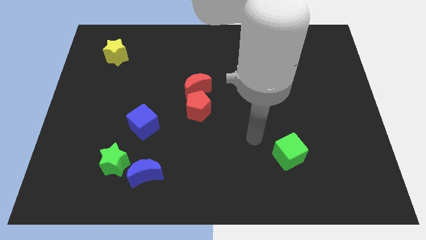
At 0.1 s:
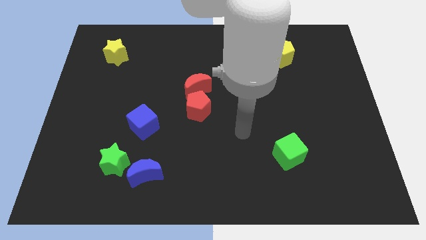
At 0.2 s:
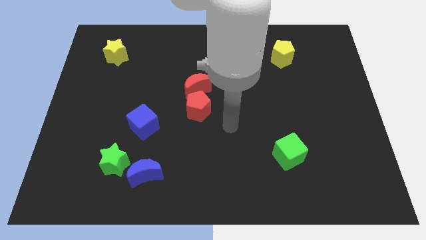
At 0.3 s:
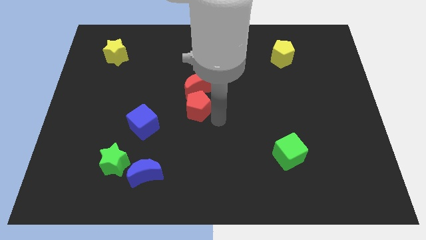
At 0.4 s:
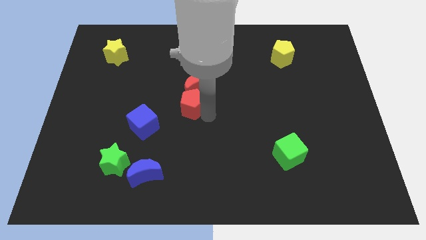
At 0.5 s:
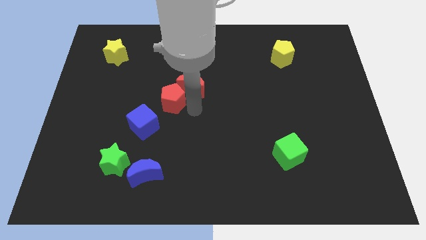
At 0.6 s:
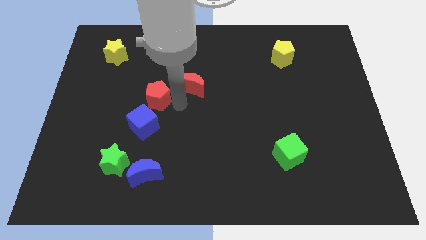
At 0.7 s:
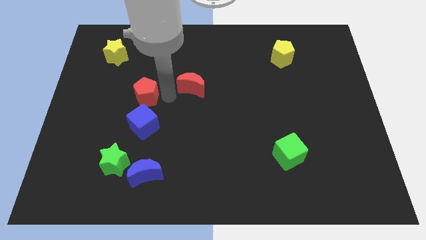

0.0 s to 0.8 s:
move the red moon away from the red pentagon

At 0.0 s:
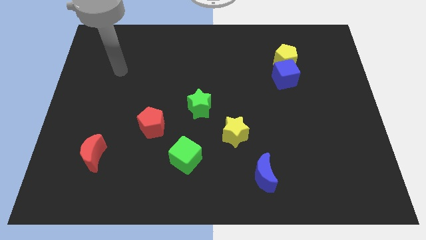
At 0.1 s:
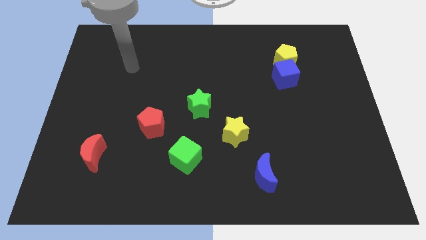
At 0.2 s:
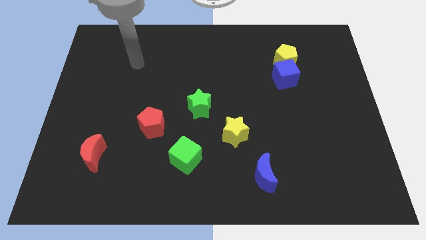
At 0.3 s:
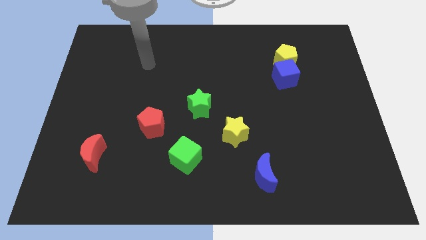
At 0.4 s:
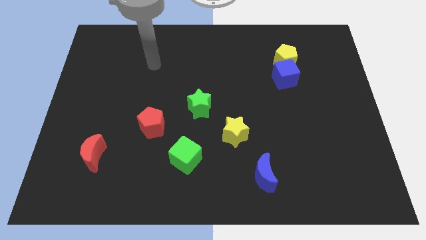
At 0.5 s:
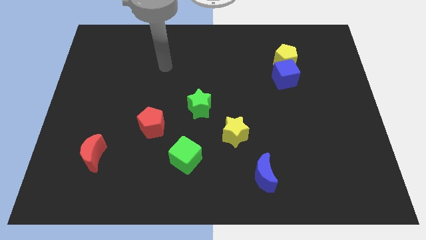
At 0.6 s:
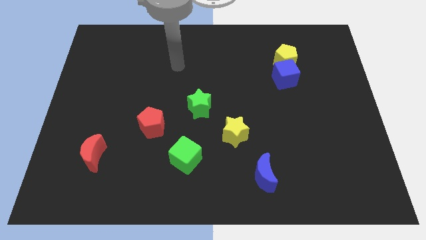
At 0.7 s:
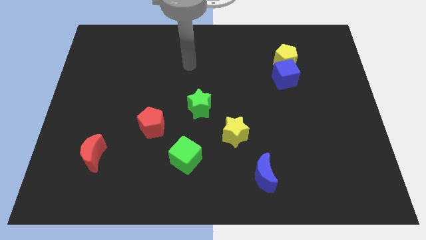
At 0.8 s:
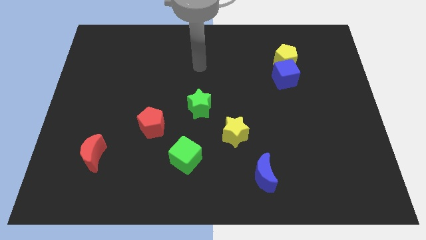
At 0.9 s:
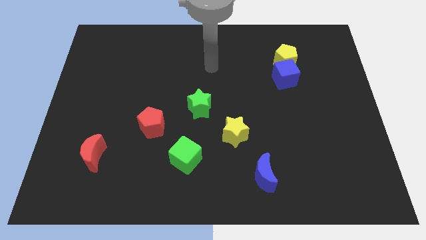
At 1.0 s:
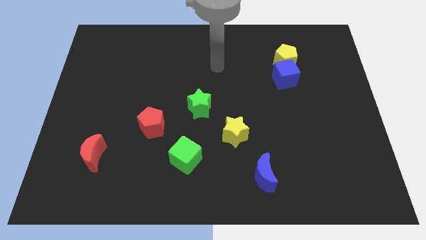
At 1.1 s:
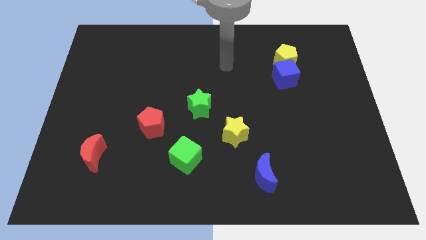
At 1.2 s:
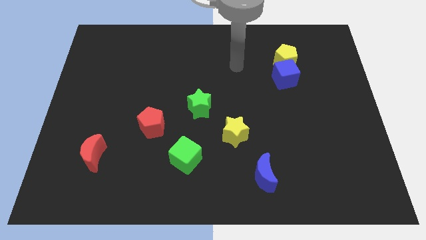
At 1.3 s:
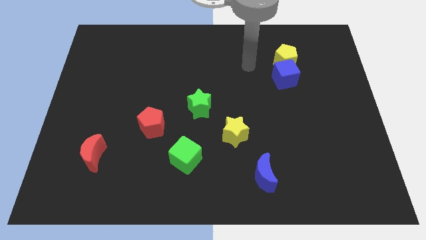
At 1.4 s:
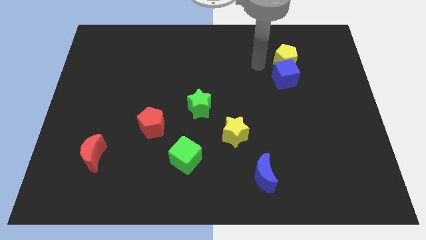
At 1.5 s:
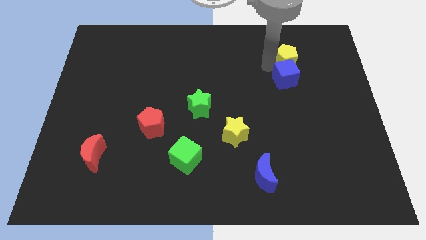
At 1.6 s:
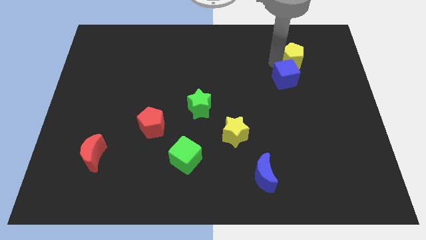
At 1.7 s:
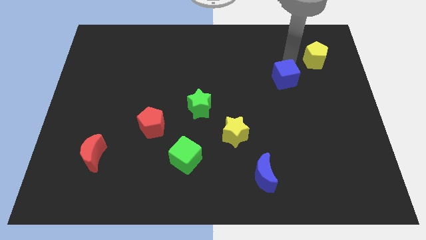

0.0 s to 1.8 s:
move the blue cube away from the yellow pentagon

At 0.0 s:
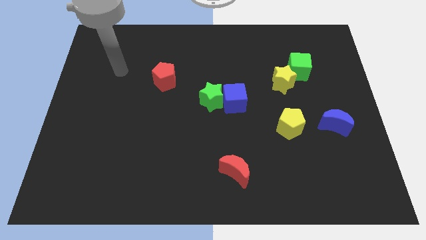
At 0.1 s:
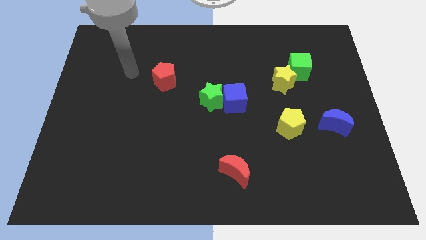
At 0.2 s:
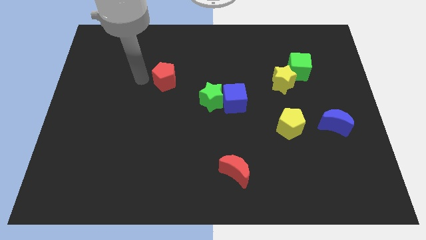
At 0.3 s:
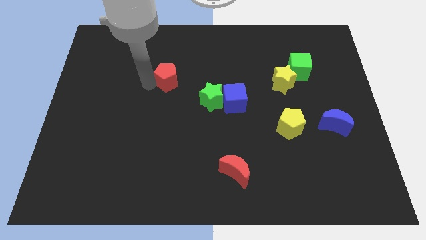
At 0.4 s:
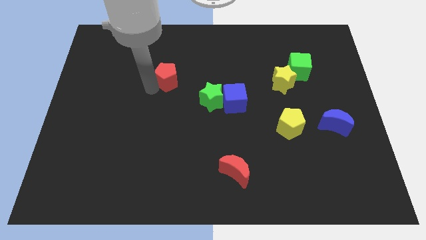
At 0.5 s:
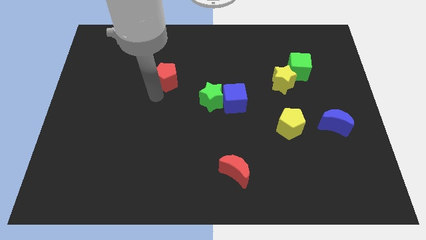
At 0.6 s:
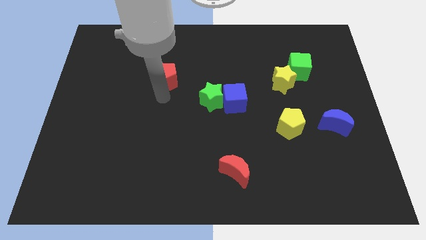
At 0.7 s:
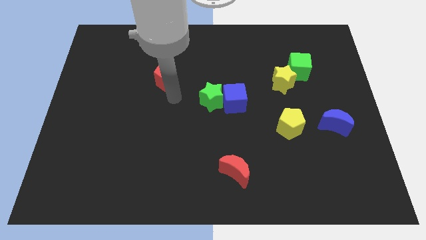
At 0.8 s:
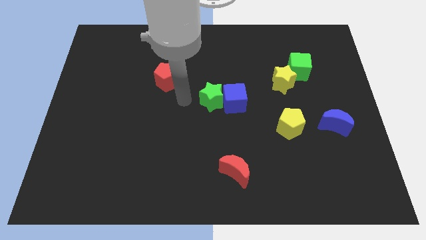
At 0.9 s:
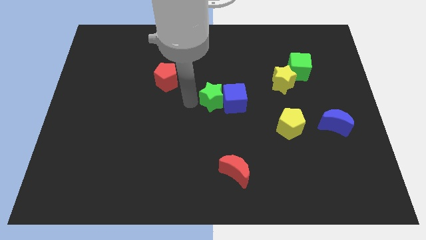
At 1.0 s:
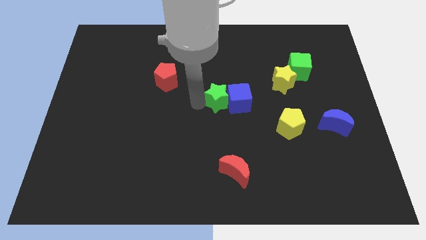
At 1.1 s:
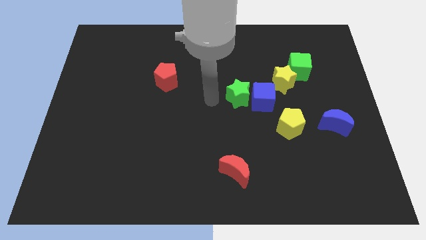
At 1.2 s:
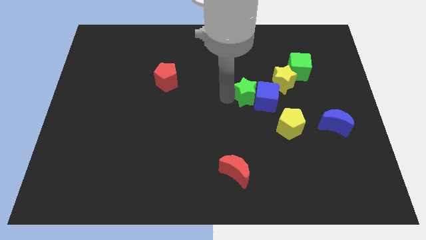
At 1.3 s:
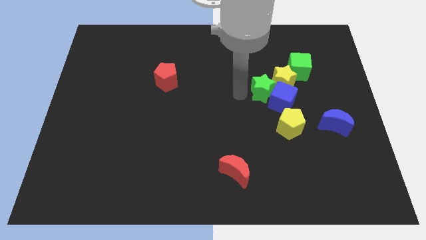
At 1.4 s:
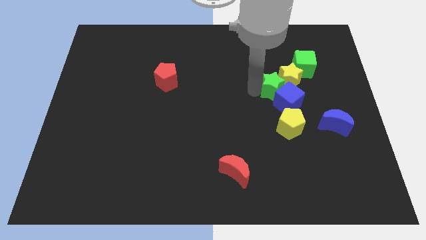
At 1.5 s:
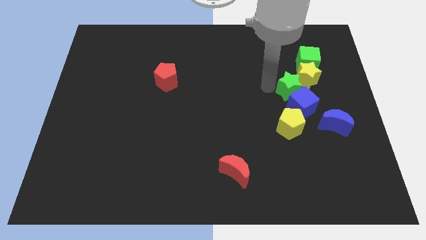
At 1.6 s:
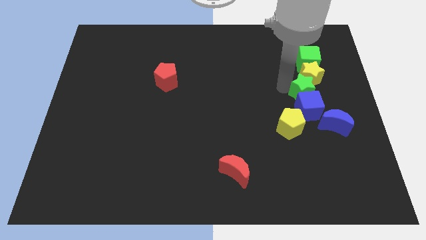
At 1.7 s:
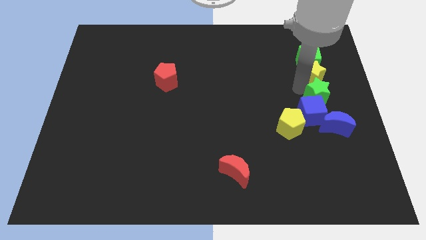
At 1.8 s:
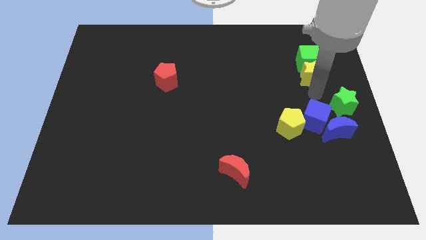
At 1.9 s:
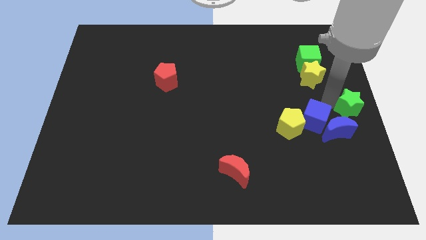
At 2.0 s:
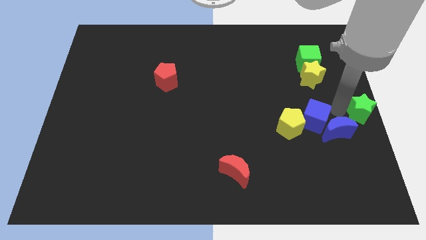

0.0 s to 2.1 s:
move the blue cube away from the green star

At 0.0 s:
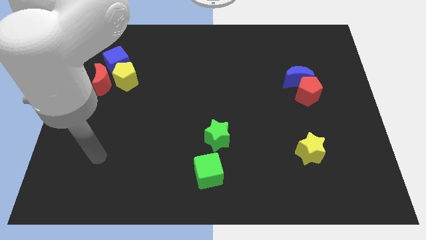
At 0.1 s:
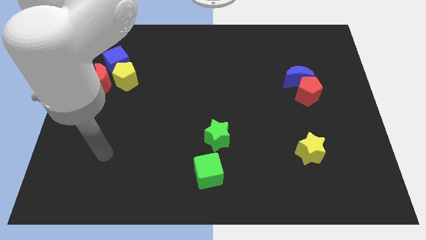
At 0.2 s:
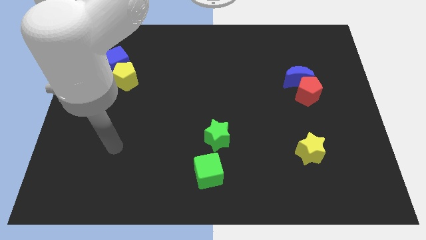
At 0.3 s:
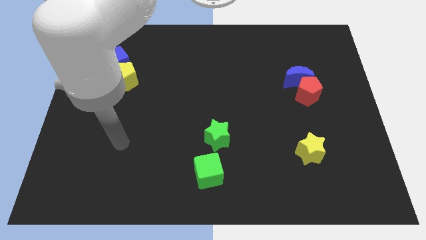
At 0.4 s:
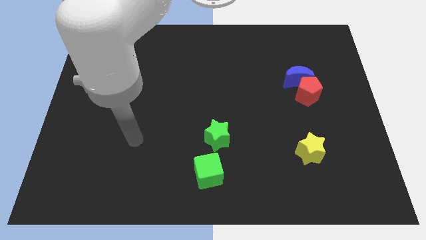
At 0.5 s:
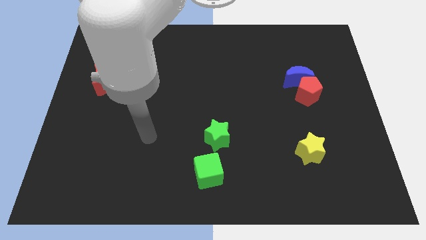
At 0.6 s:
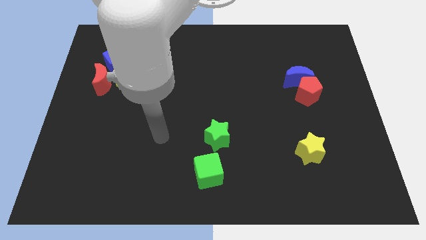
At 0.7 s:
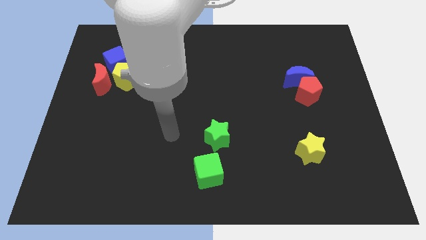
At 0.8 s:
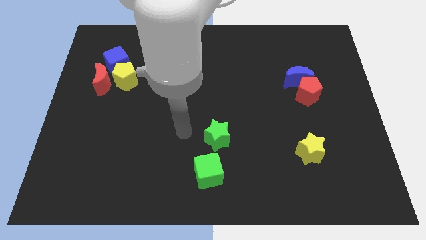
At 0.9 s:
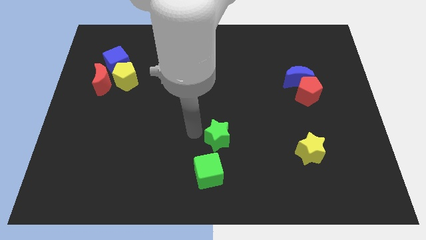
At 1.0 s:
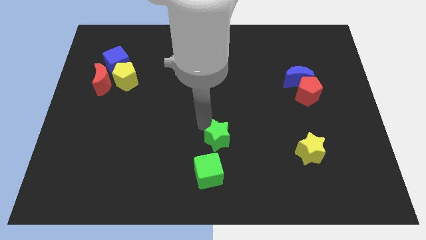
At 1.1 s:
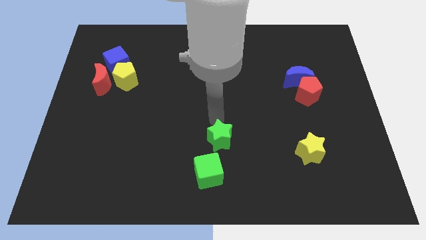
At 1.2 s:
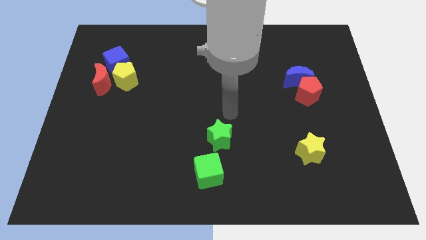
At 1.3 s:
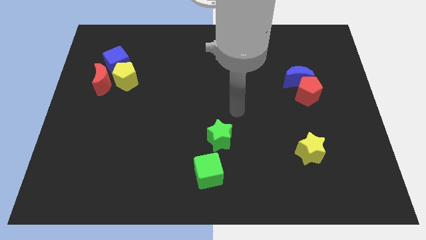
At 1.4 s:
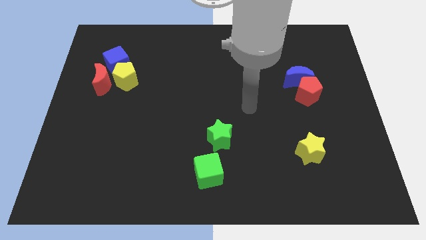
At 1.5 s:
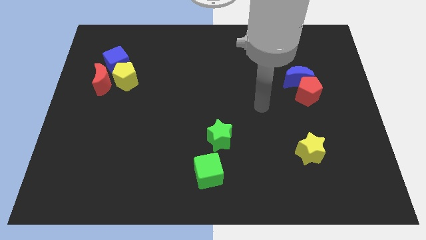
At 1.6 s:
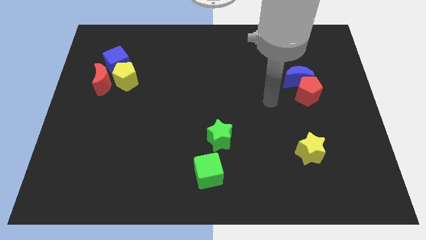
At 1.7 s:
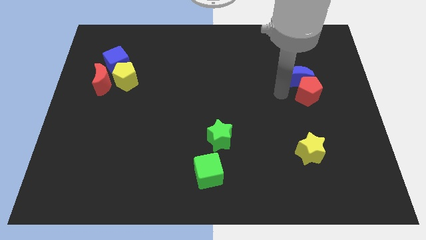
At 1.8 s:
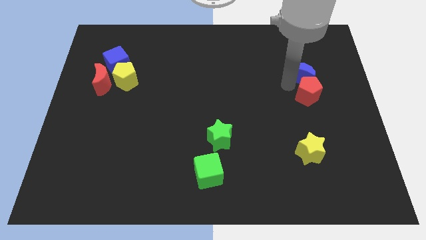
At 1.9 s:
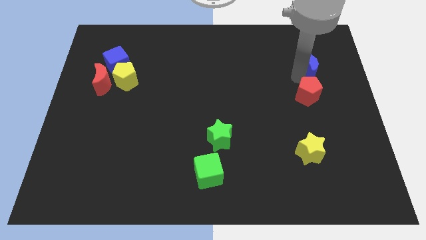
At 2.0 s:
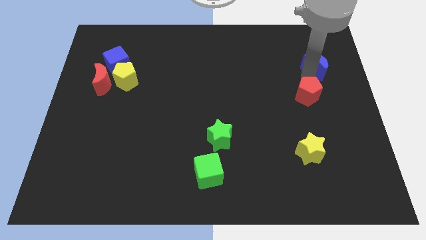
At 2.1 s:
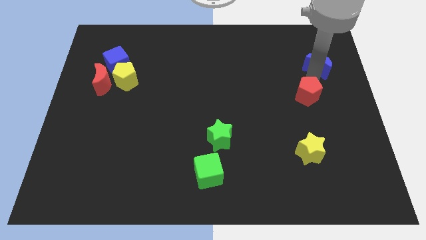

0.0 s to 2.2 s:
pull the red pentagon apart from the blue moon

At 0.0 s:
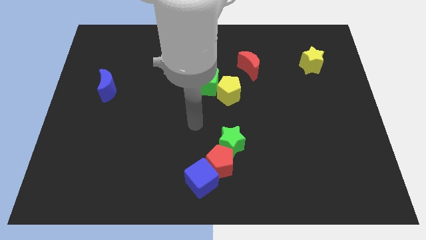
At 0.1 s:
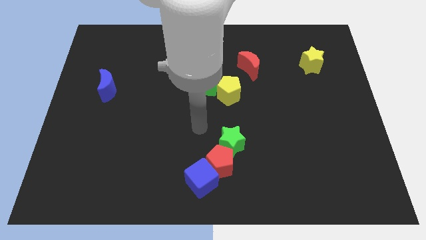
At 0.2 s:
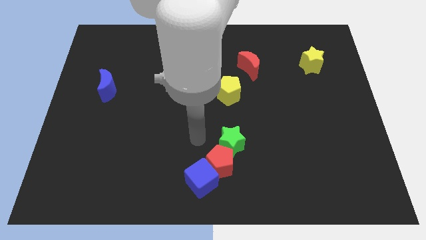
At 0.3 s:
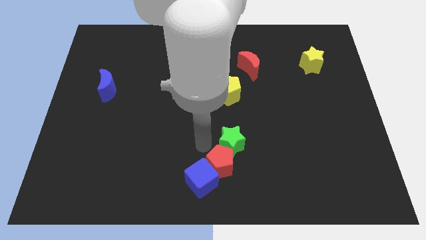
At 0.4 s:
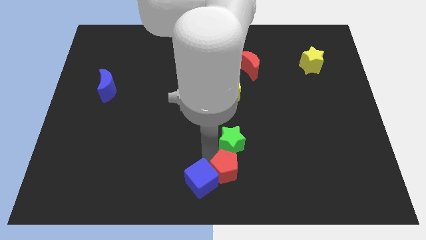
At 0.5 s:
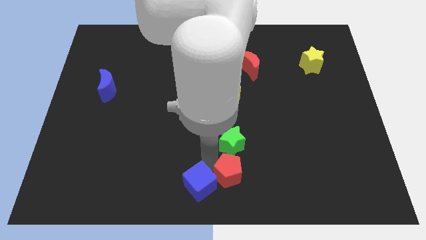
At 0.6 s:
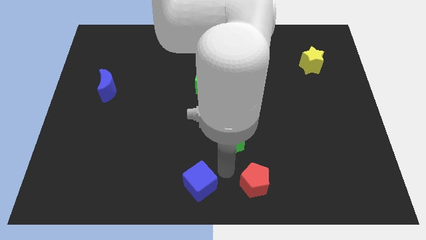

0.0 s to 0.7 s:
pull the green star apart from the red pentagon

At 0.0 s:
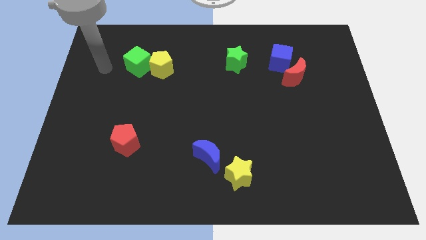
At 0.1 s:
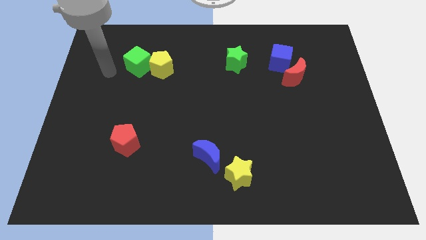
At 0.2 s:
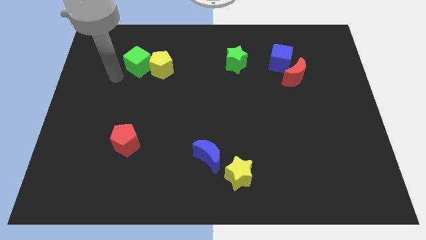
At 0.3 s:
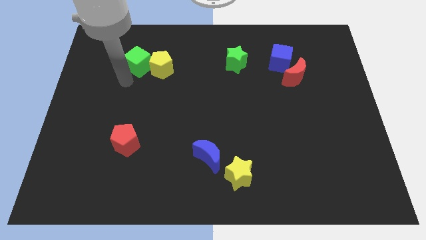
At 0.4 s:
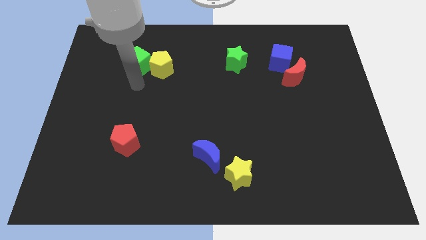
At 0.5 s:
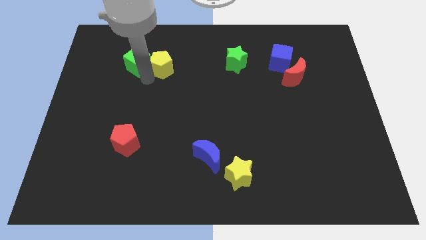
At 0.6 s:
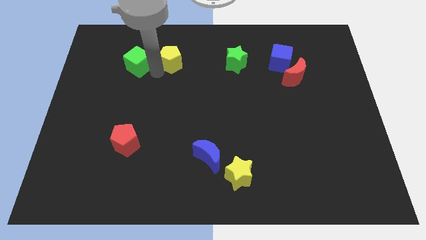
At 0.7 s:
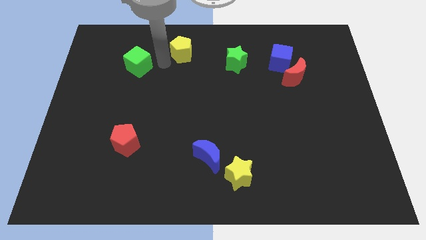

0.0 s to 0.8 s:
pull the green cube apart from the yellow pentagon

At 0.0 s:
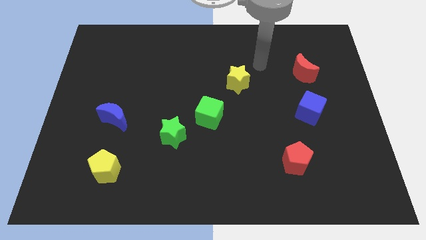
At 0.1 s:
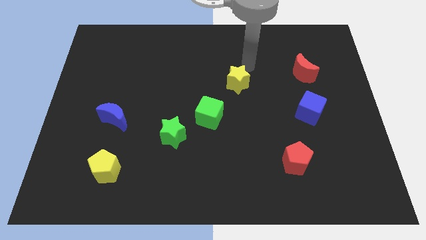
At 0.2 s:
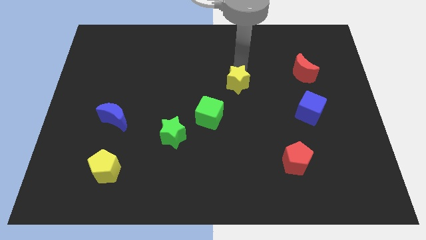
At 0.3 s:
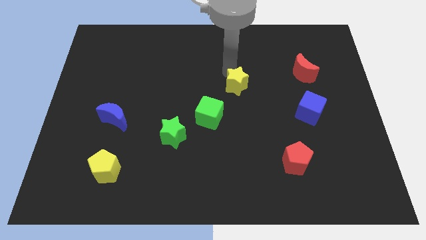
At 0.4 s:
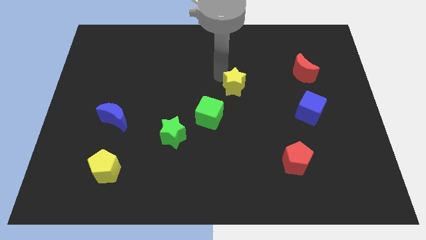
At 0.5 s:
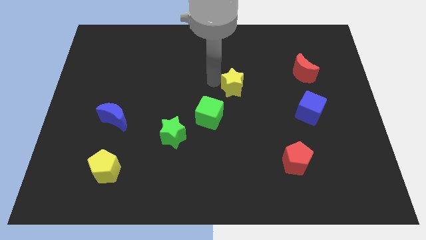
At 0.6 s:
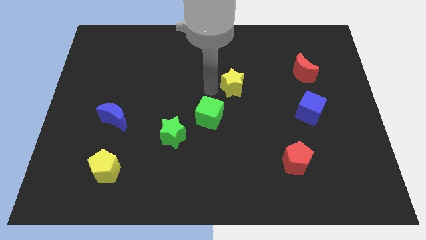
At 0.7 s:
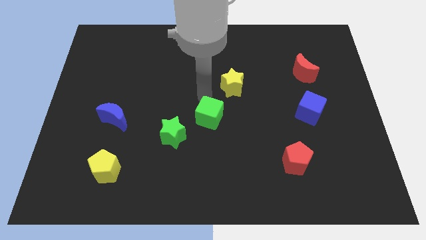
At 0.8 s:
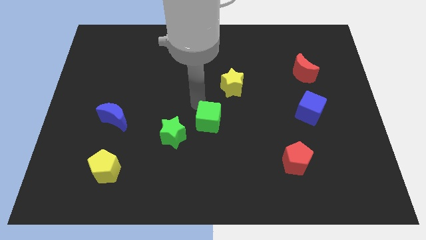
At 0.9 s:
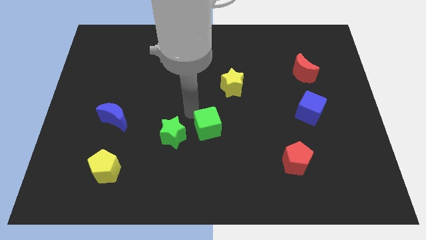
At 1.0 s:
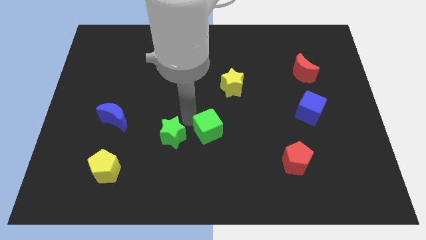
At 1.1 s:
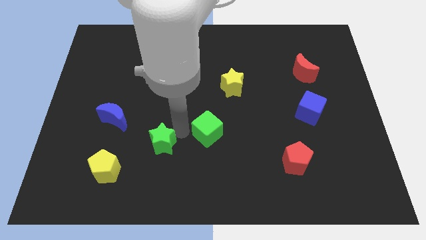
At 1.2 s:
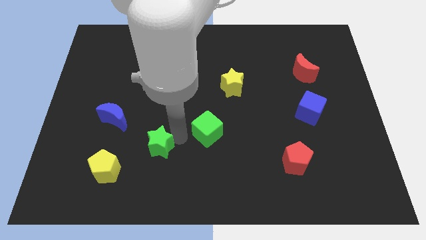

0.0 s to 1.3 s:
move the green cube away from the green star
